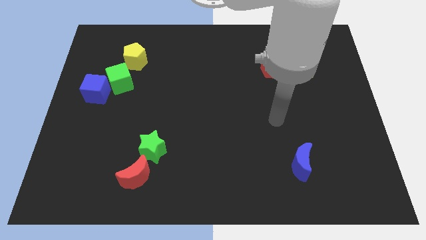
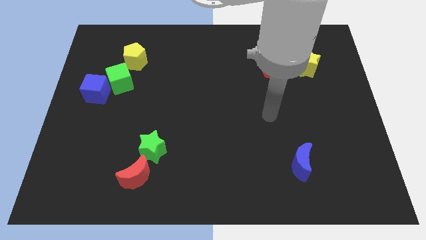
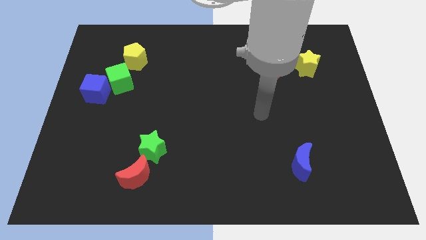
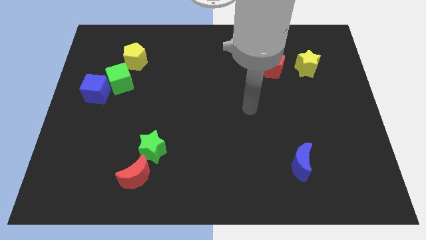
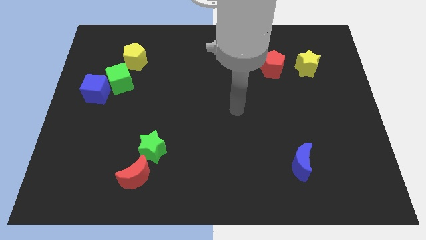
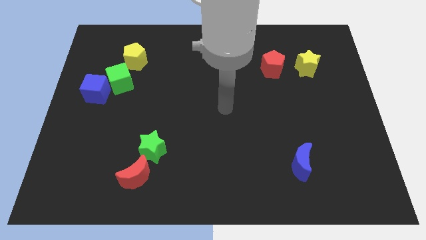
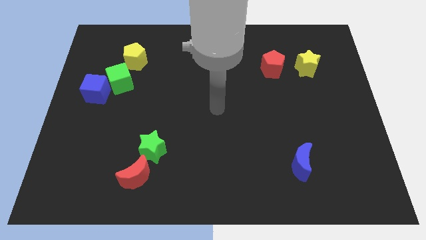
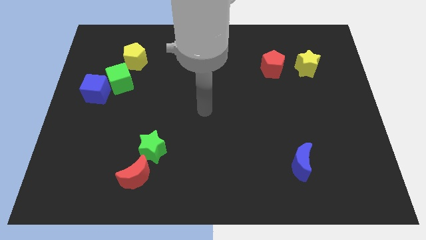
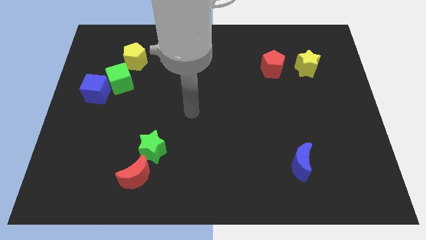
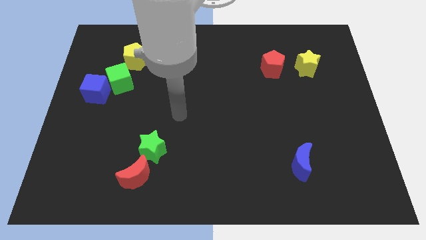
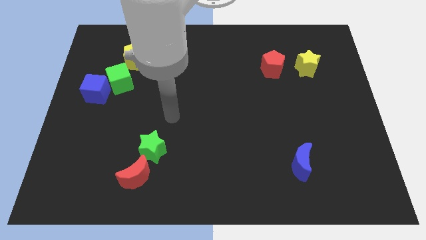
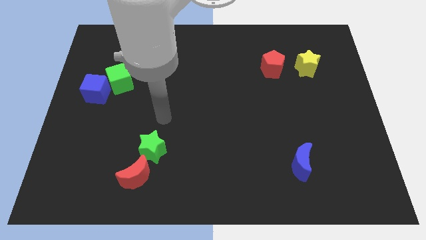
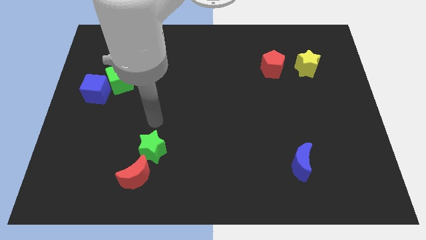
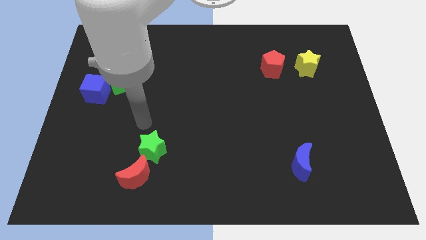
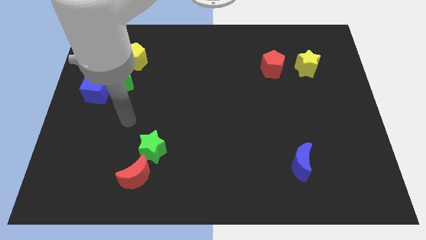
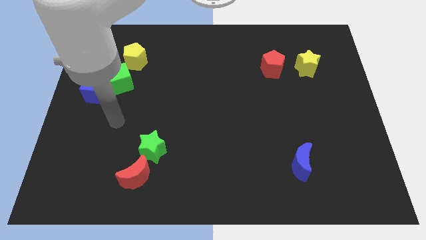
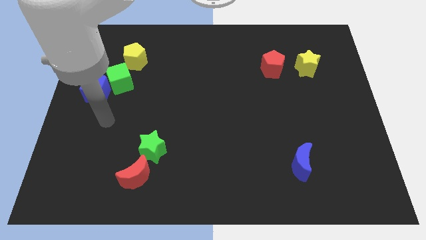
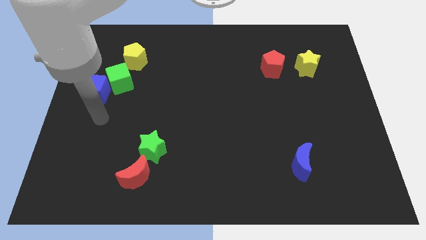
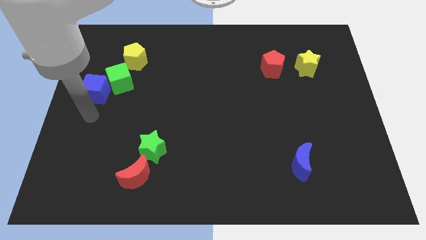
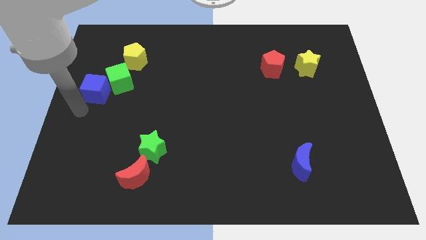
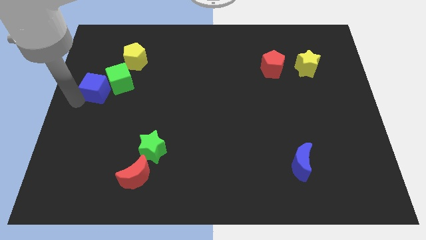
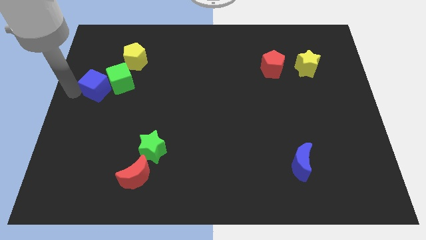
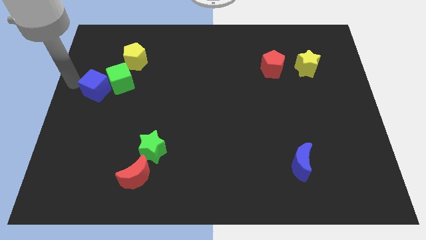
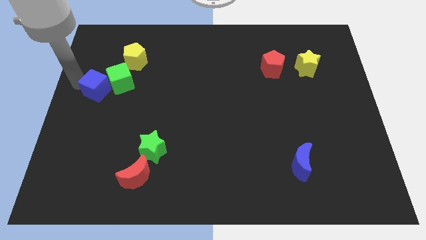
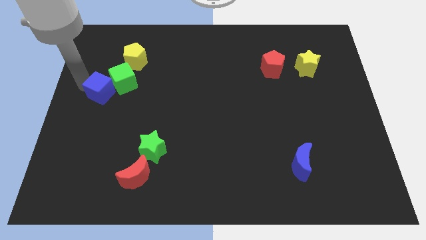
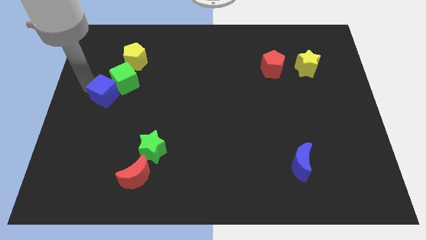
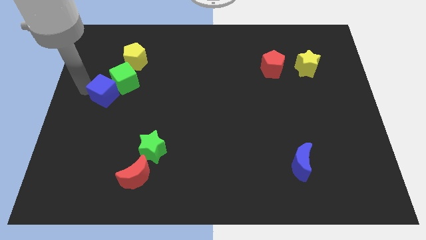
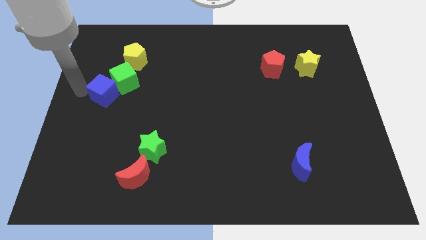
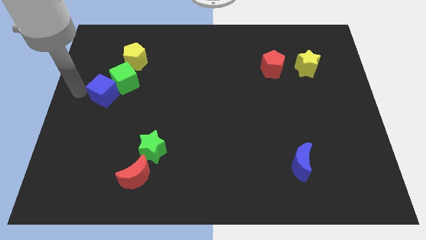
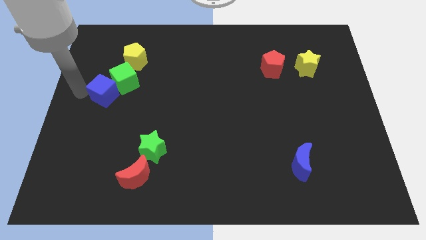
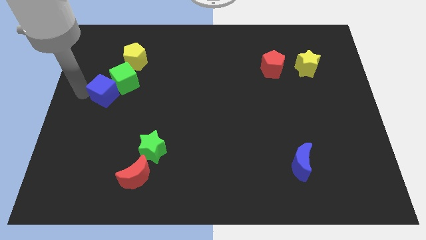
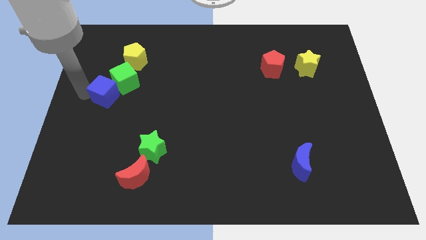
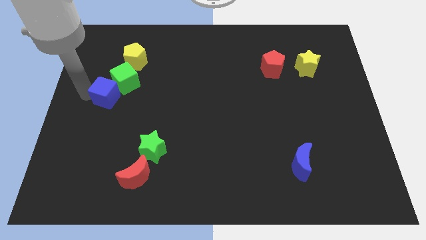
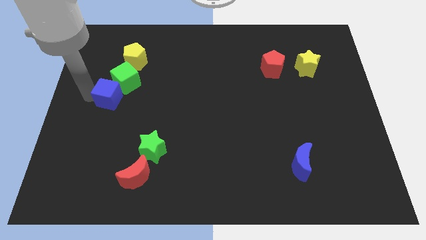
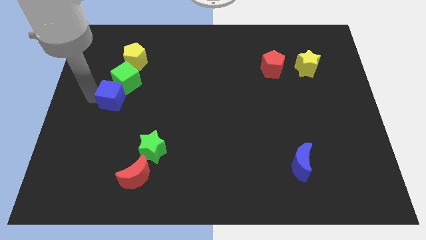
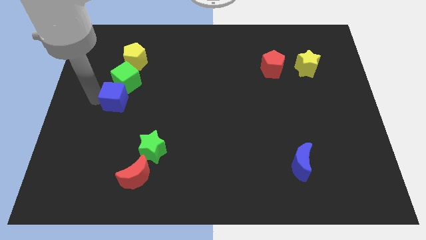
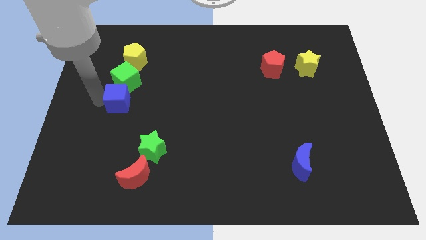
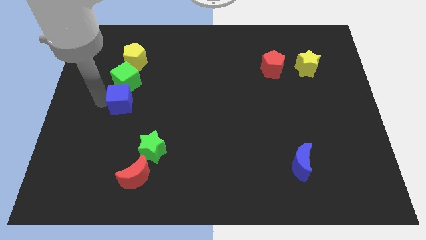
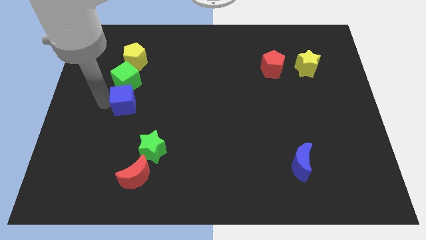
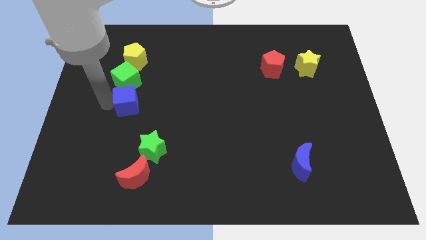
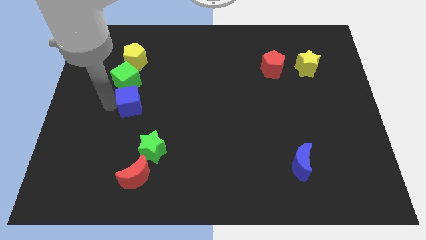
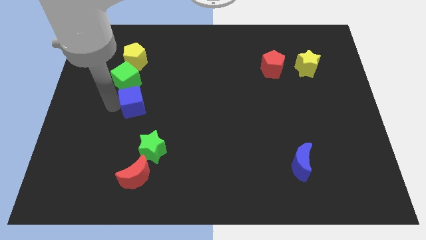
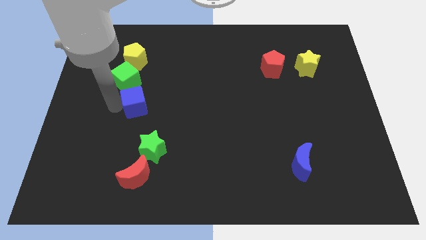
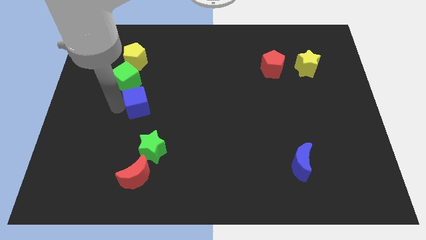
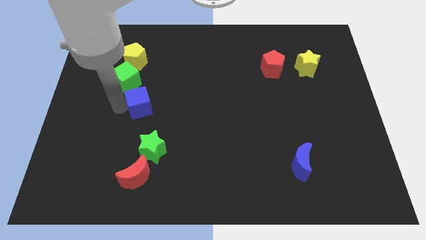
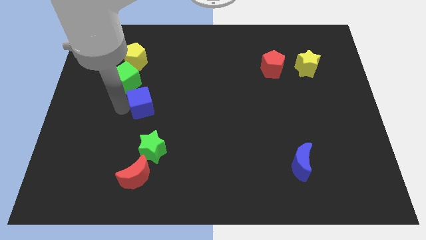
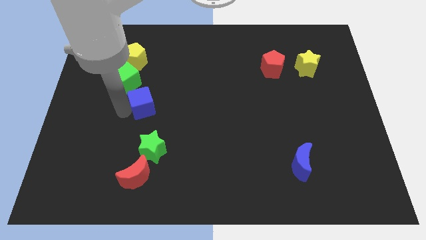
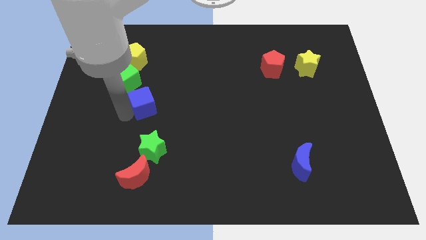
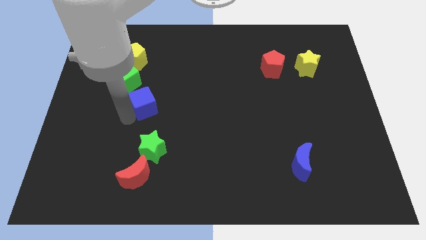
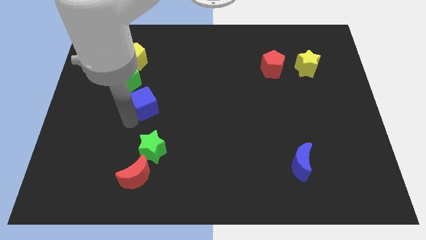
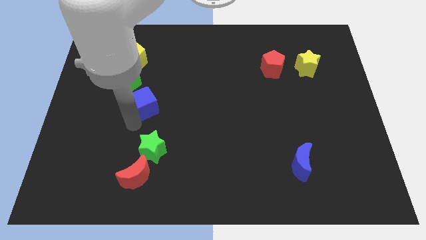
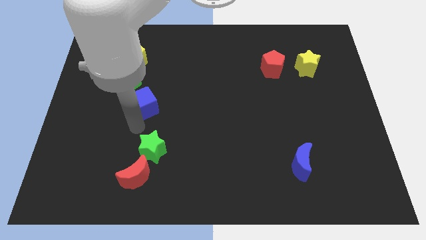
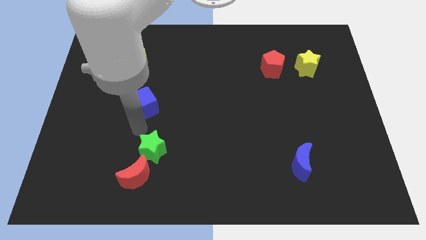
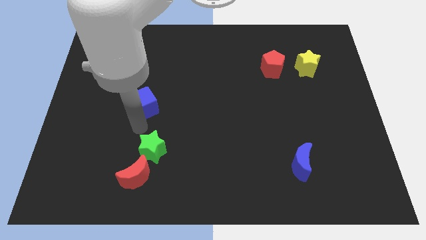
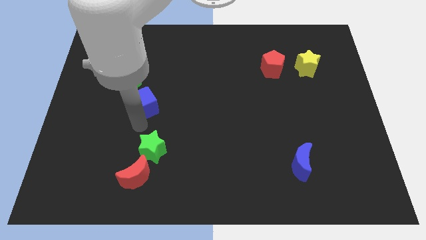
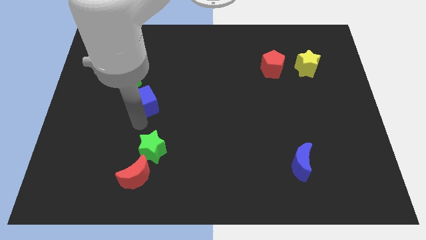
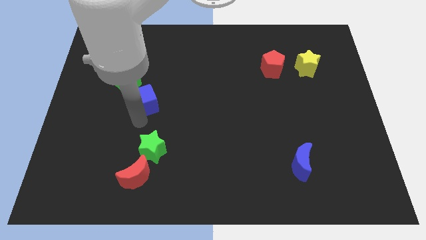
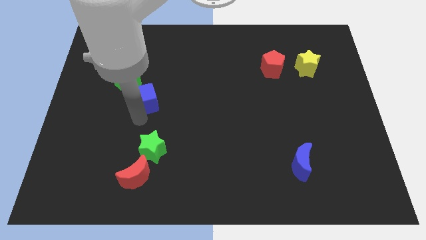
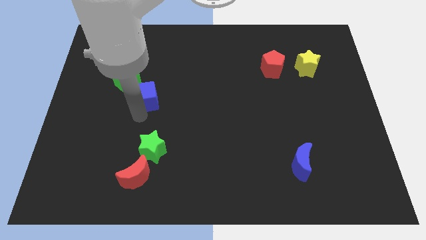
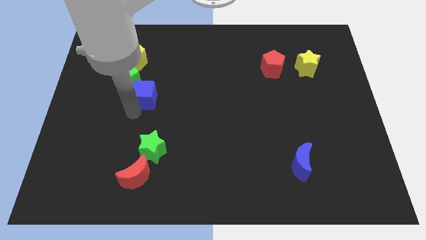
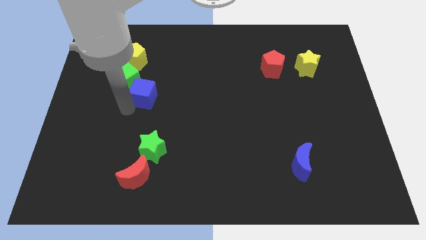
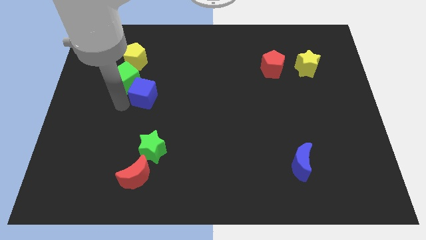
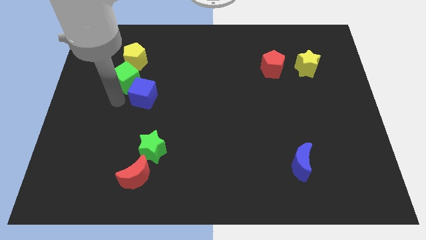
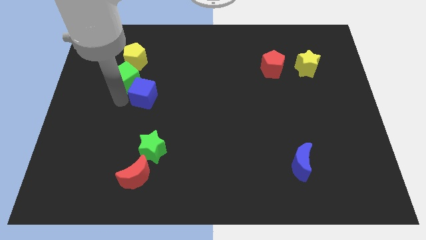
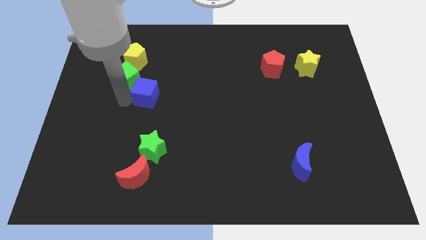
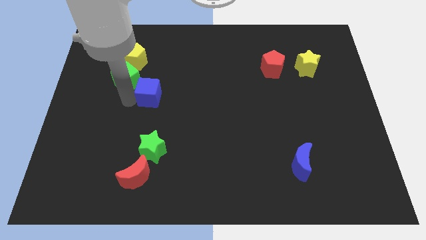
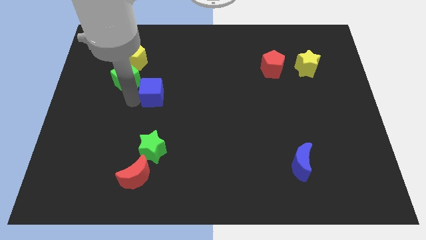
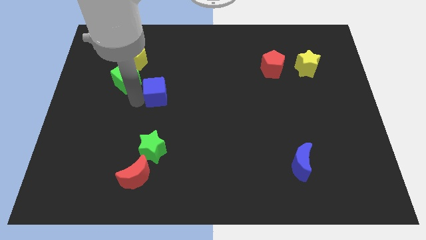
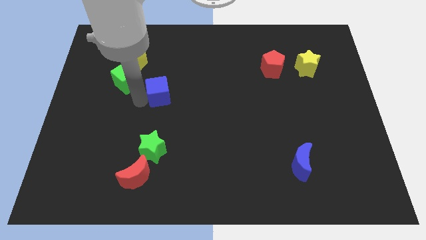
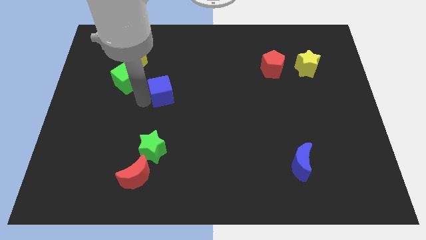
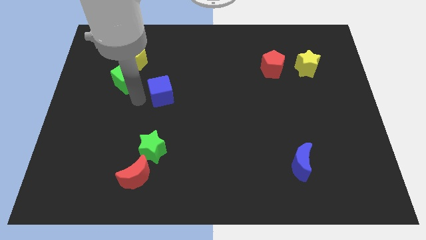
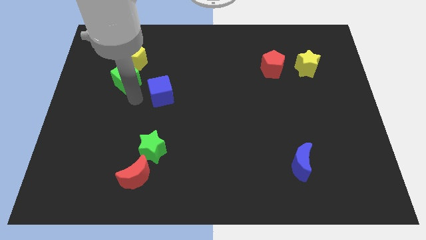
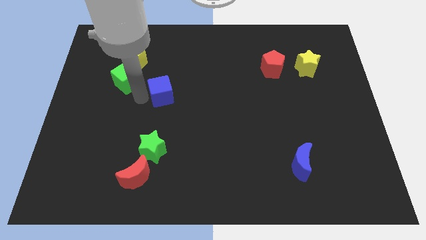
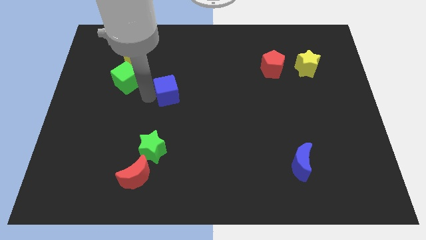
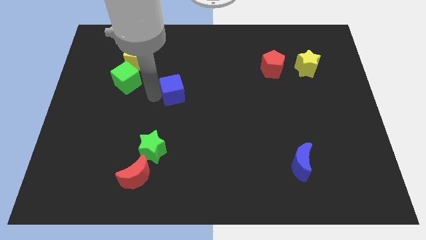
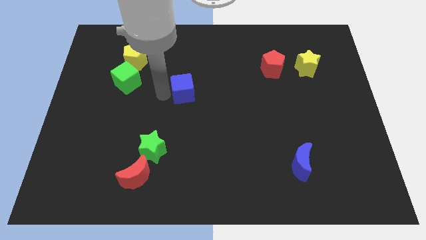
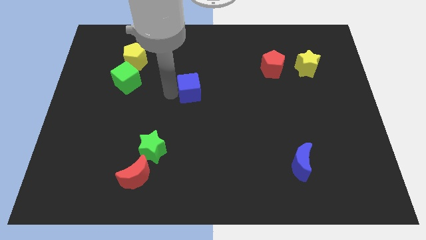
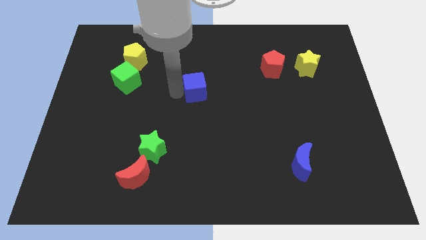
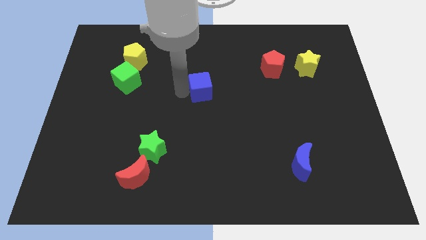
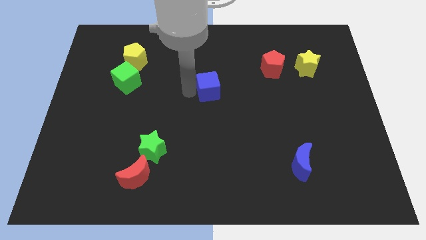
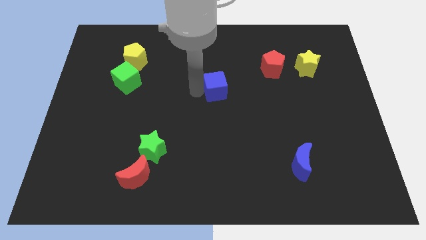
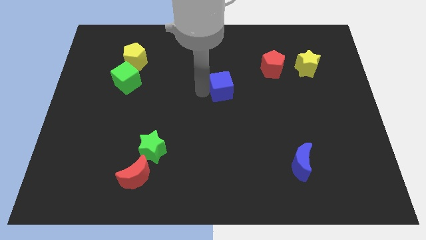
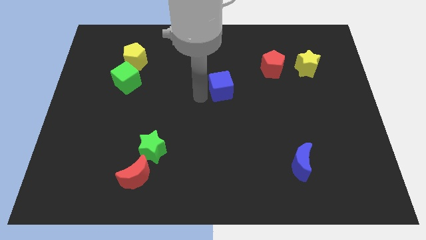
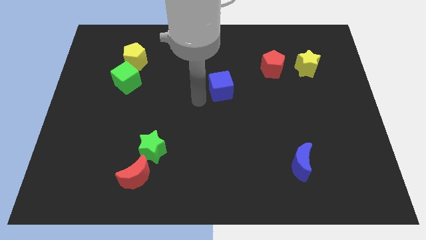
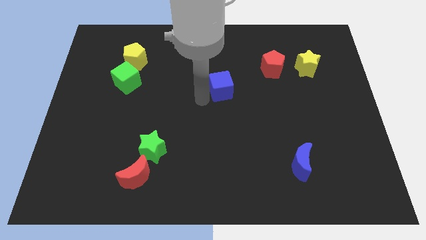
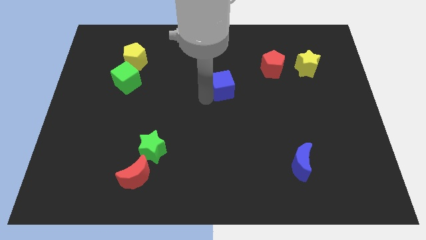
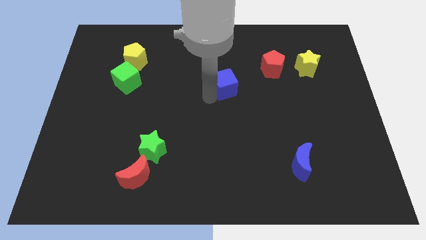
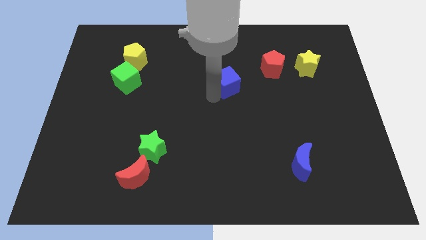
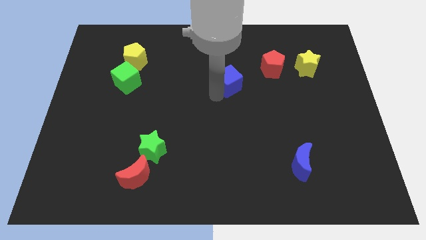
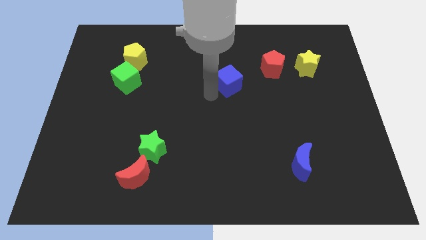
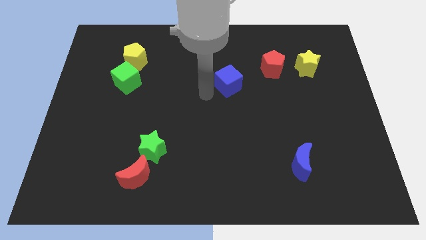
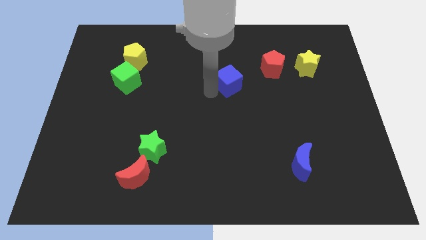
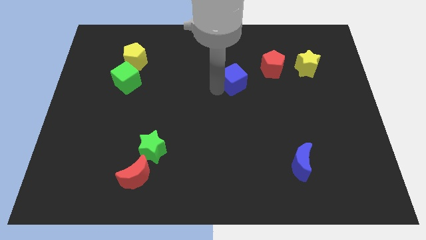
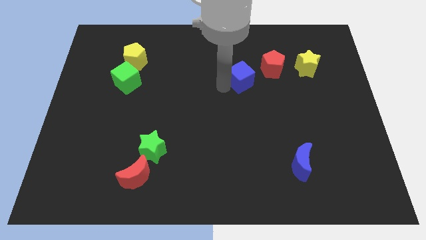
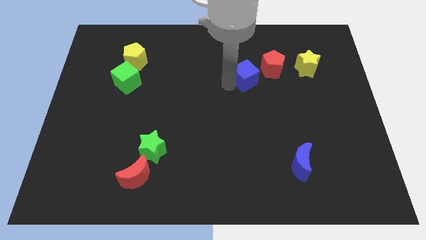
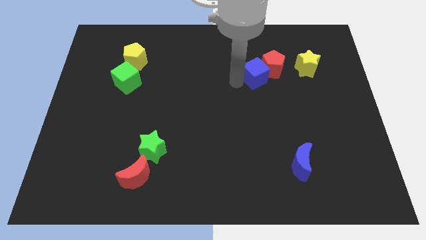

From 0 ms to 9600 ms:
push the blue cube towards the red pentagon
